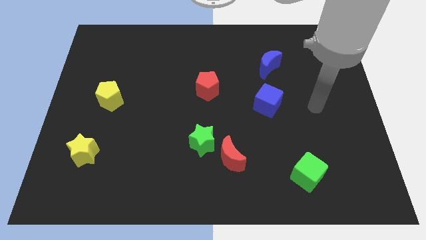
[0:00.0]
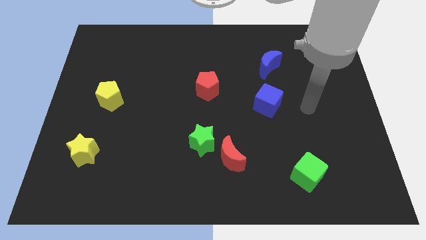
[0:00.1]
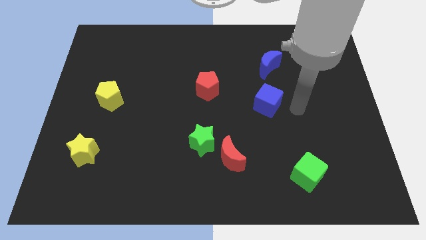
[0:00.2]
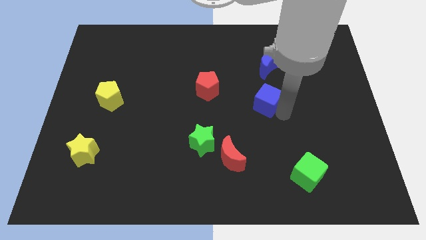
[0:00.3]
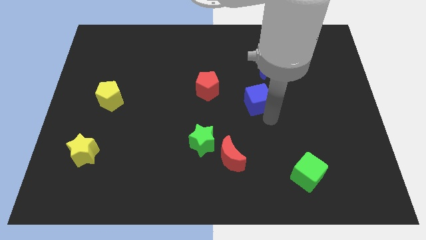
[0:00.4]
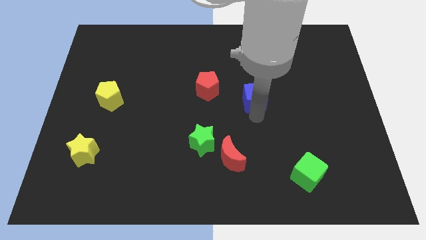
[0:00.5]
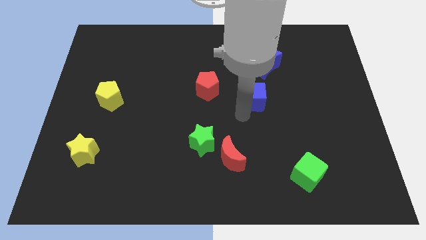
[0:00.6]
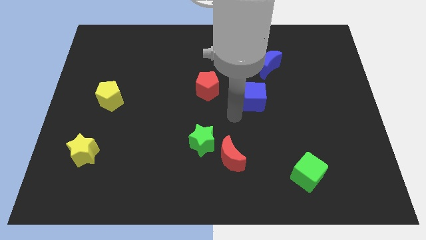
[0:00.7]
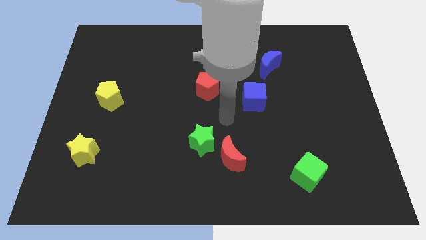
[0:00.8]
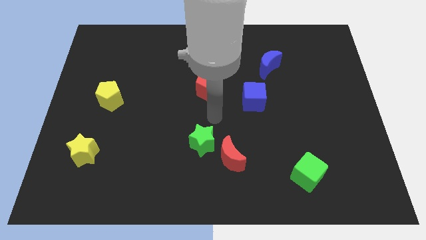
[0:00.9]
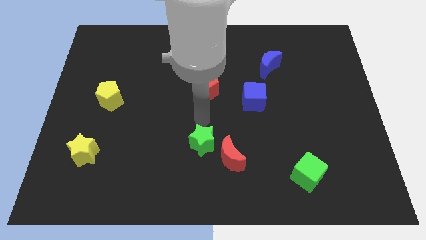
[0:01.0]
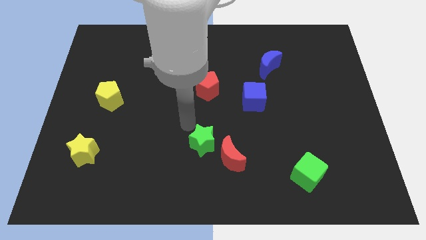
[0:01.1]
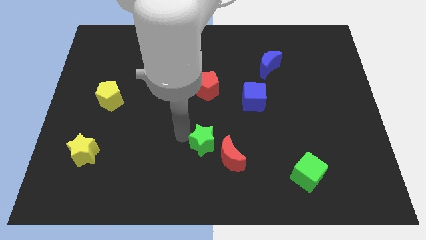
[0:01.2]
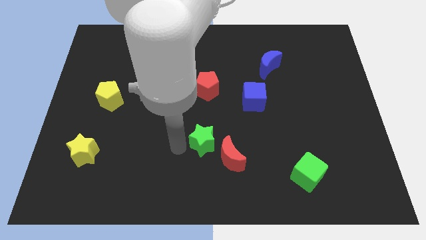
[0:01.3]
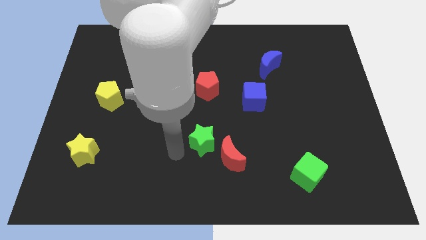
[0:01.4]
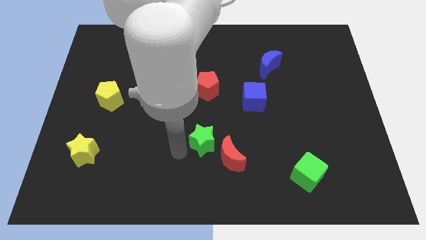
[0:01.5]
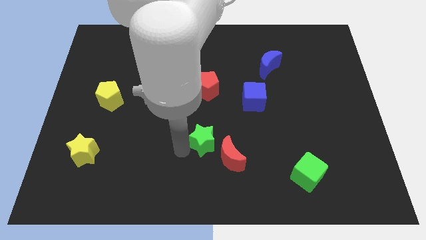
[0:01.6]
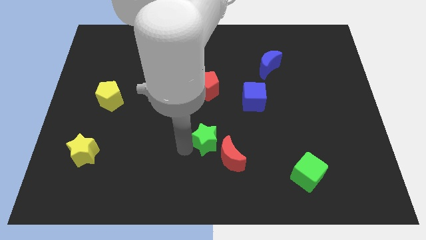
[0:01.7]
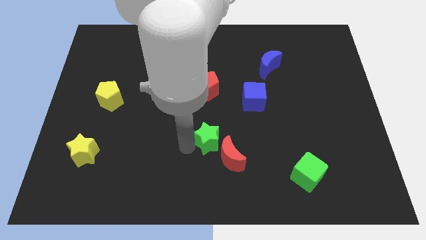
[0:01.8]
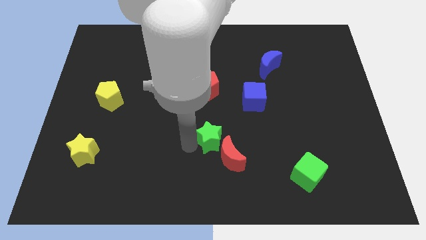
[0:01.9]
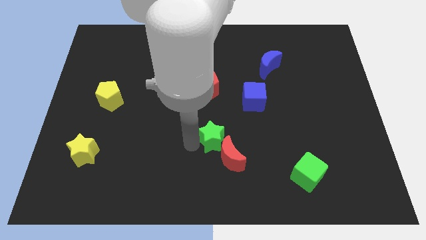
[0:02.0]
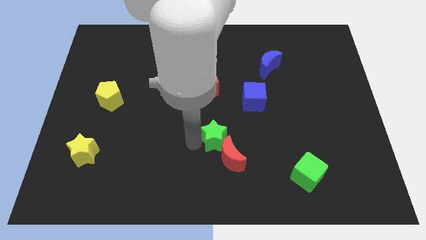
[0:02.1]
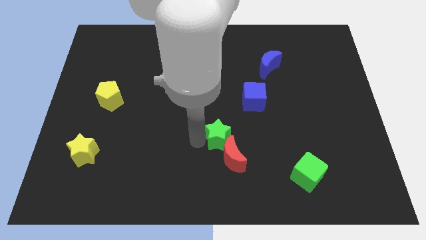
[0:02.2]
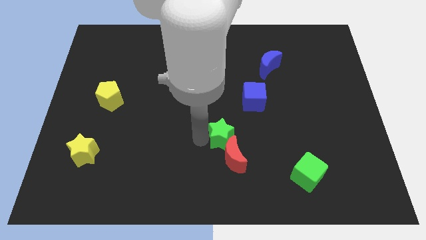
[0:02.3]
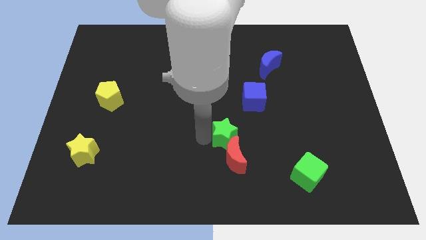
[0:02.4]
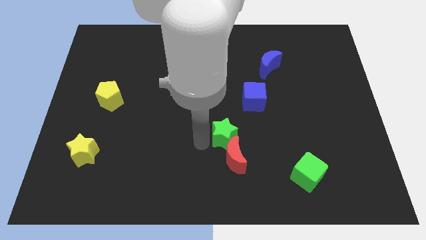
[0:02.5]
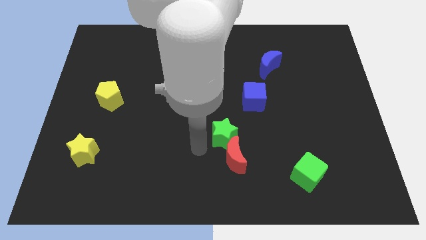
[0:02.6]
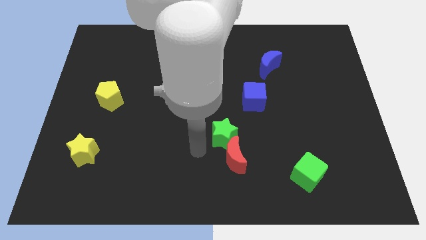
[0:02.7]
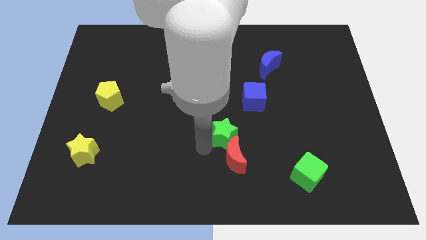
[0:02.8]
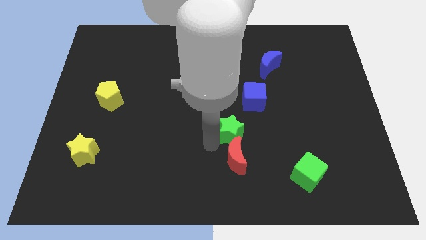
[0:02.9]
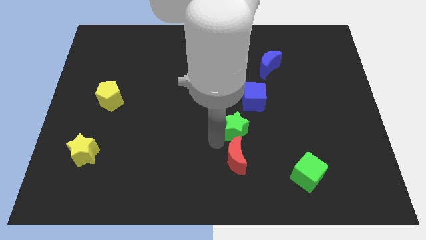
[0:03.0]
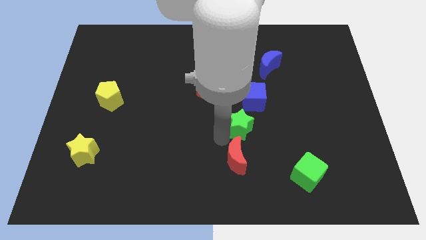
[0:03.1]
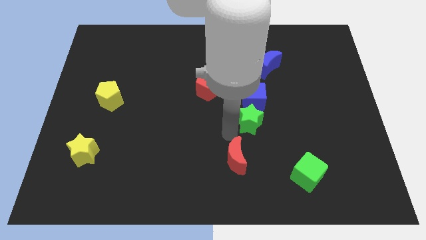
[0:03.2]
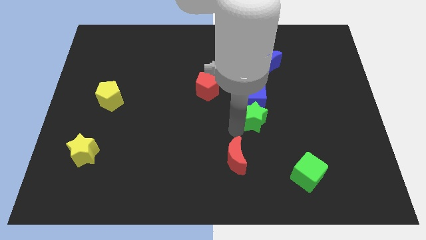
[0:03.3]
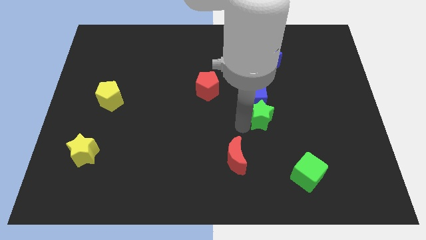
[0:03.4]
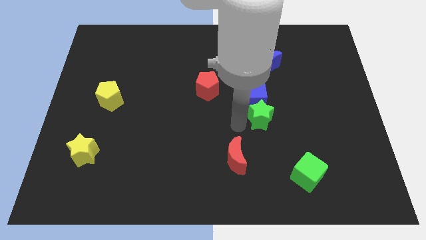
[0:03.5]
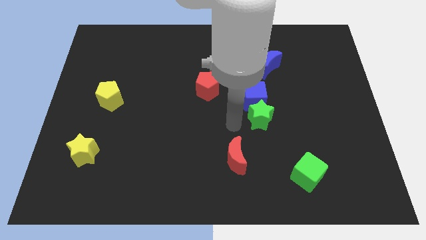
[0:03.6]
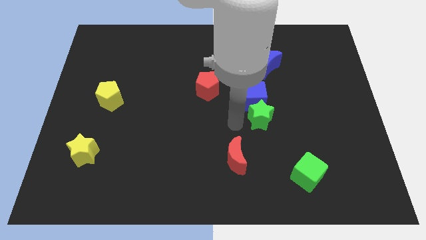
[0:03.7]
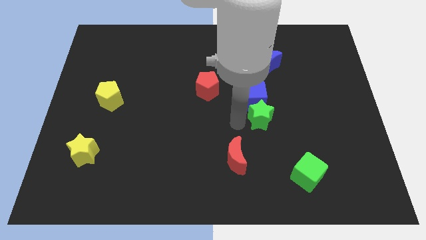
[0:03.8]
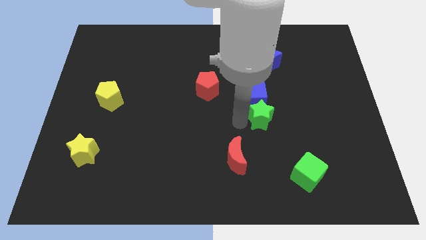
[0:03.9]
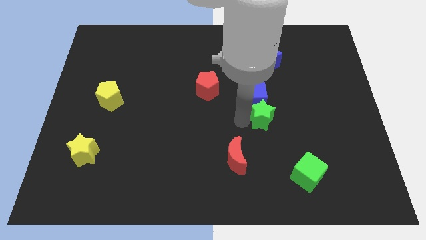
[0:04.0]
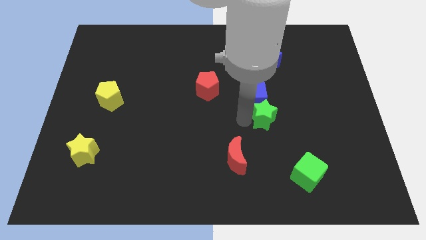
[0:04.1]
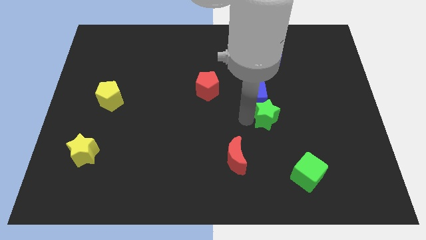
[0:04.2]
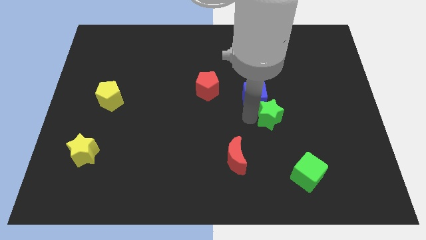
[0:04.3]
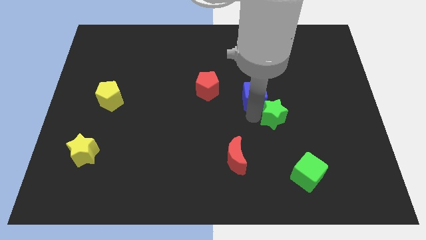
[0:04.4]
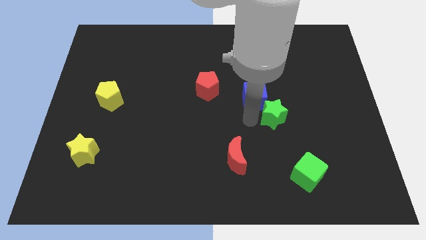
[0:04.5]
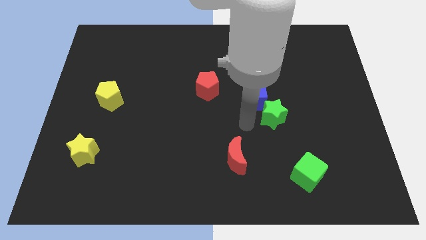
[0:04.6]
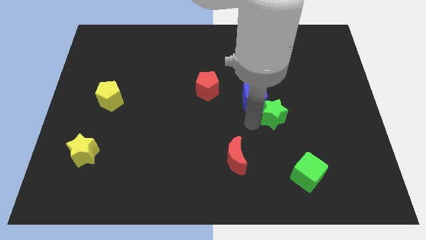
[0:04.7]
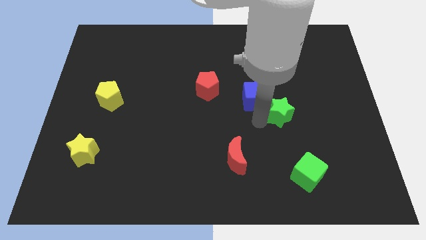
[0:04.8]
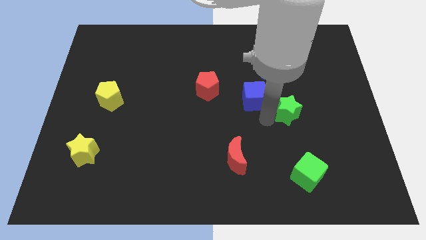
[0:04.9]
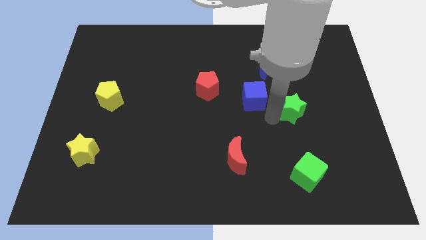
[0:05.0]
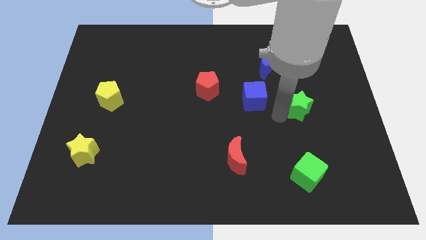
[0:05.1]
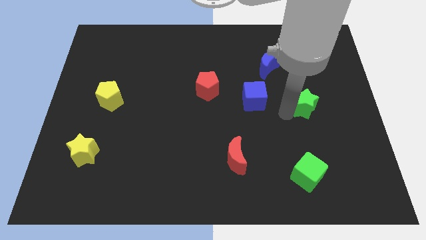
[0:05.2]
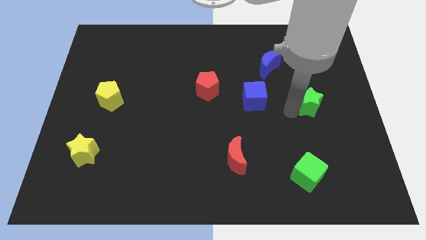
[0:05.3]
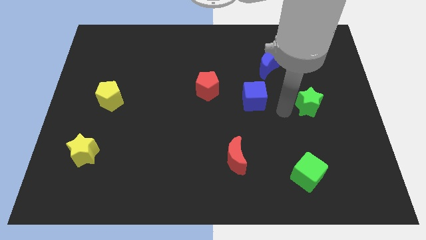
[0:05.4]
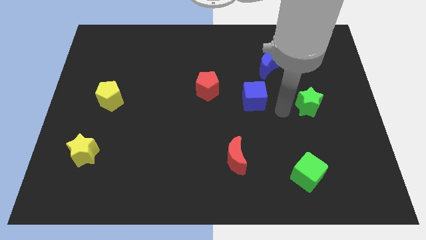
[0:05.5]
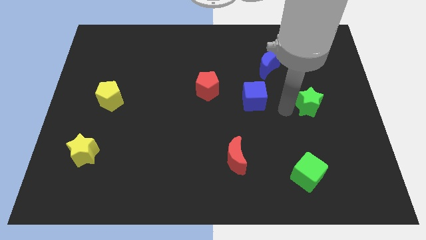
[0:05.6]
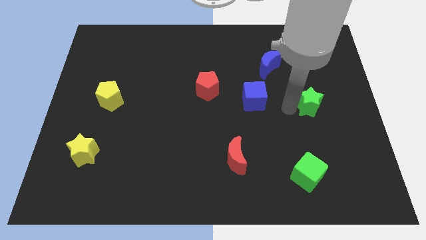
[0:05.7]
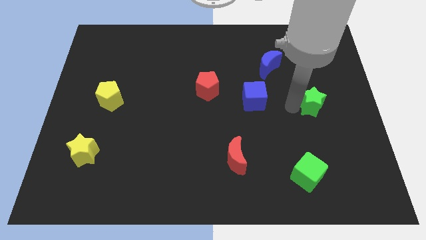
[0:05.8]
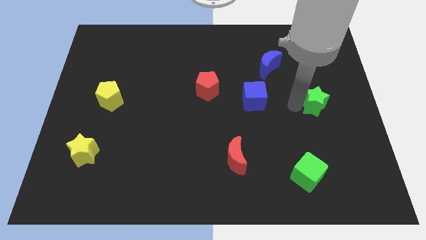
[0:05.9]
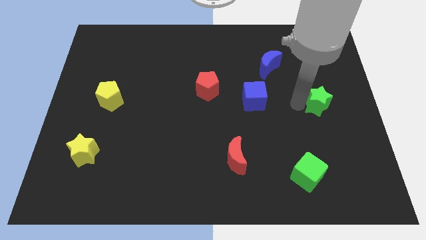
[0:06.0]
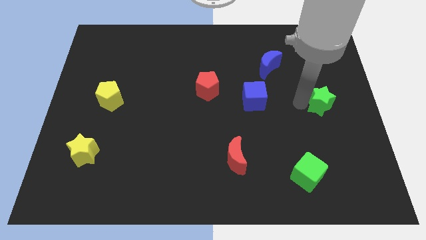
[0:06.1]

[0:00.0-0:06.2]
slide the green star to the center right
